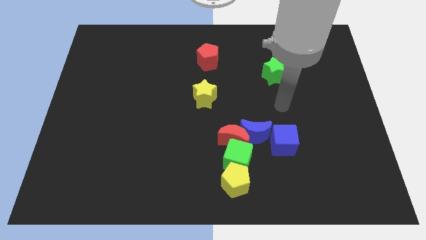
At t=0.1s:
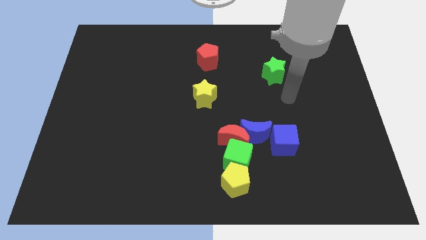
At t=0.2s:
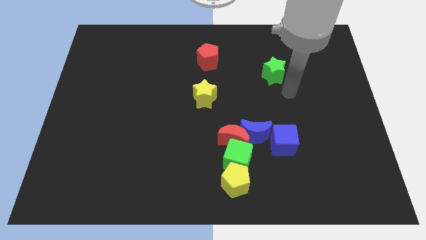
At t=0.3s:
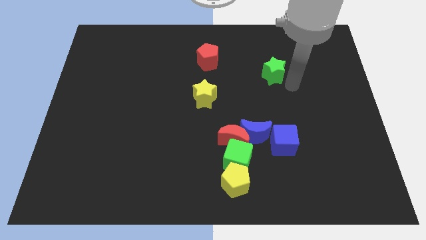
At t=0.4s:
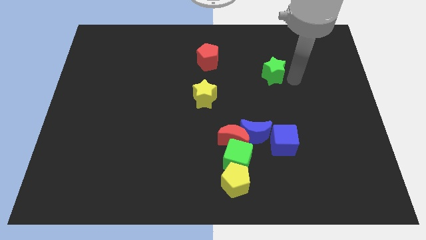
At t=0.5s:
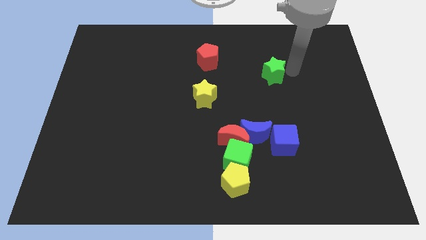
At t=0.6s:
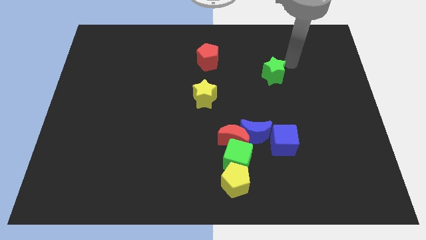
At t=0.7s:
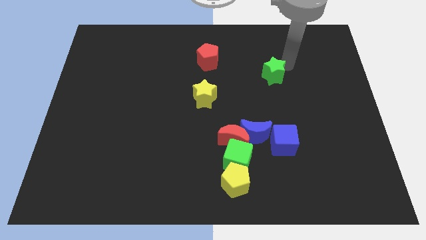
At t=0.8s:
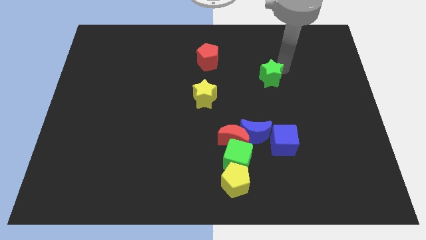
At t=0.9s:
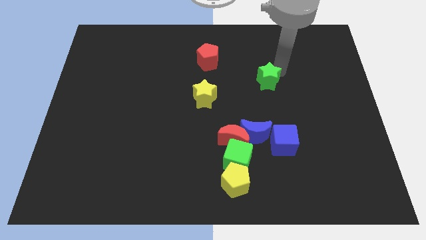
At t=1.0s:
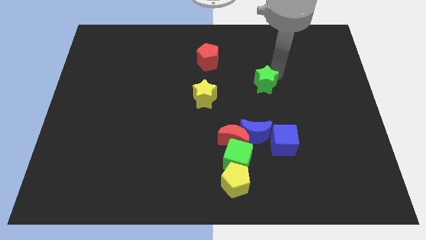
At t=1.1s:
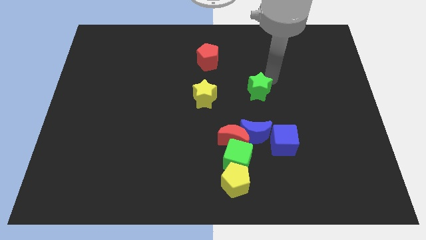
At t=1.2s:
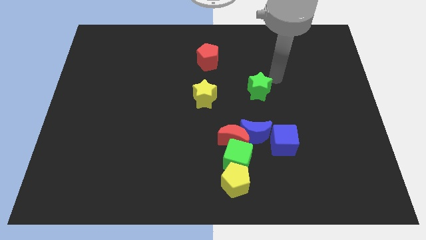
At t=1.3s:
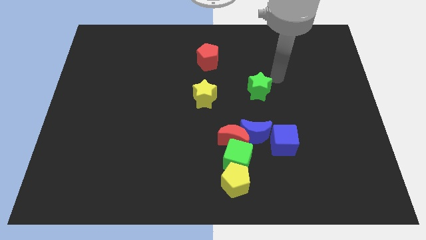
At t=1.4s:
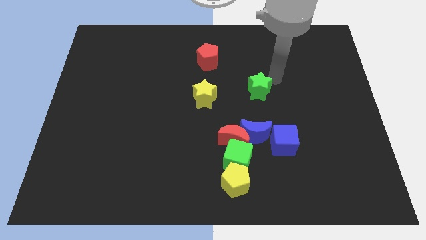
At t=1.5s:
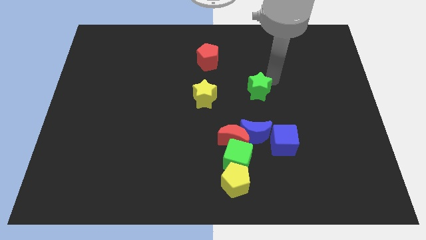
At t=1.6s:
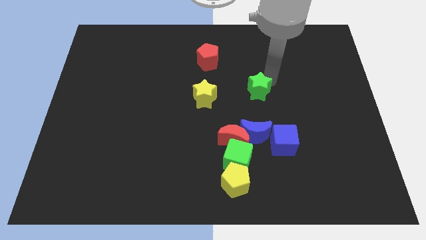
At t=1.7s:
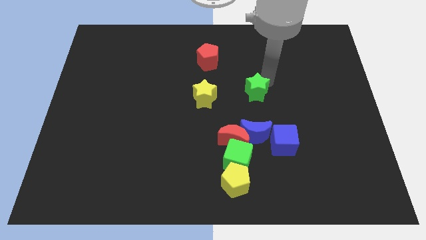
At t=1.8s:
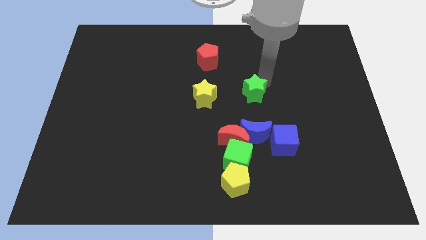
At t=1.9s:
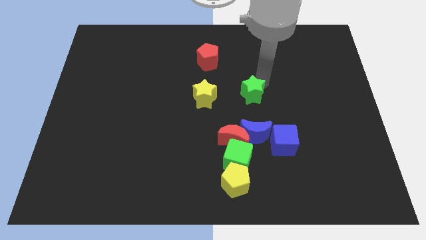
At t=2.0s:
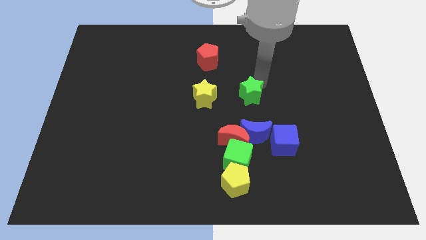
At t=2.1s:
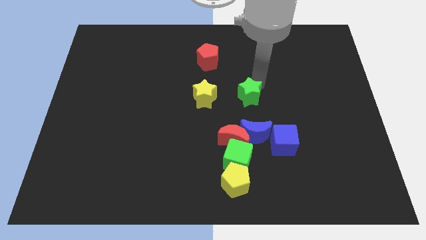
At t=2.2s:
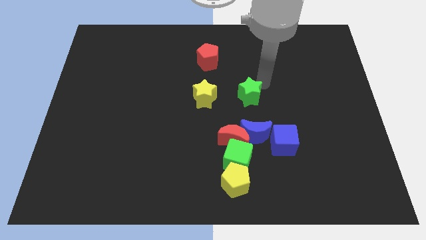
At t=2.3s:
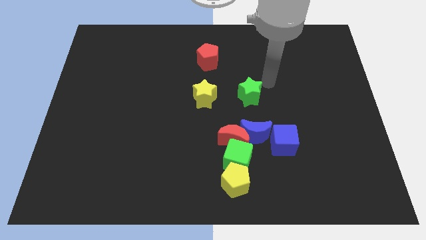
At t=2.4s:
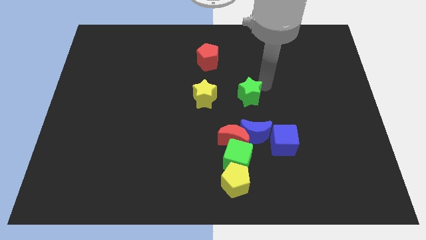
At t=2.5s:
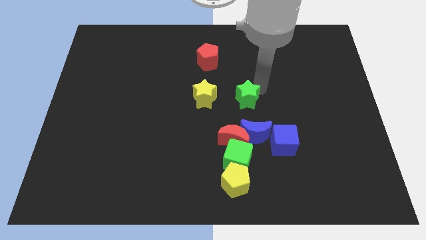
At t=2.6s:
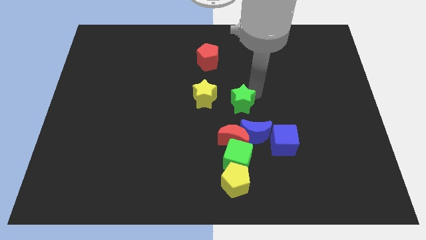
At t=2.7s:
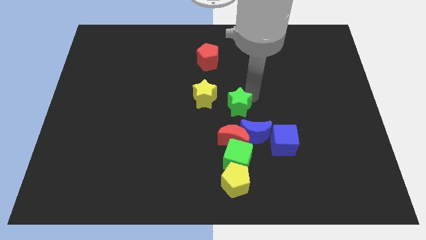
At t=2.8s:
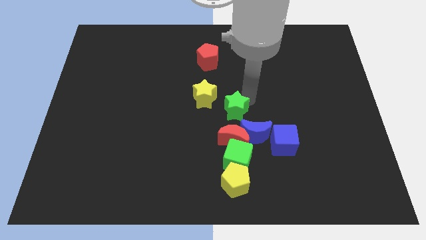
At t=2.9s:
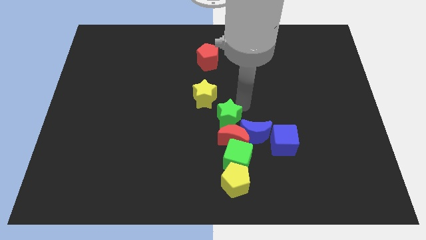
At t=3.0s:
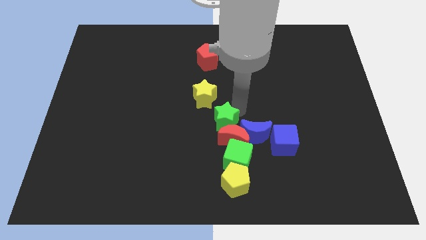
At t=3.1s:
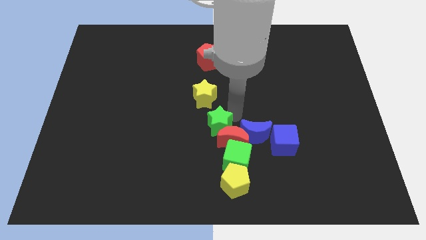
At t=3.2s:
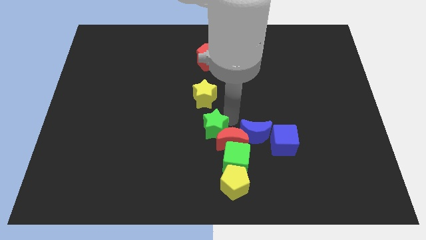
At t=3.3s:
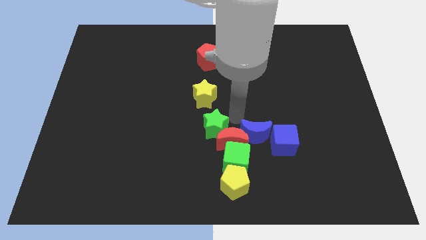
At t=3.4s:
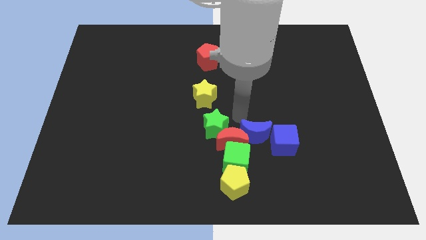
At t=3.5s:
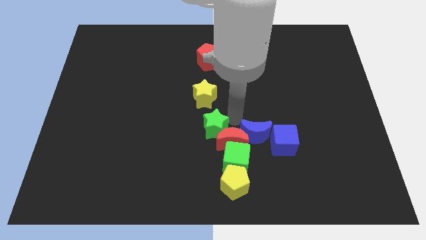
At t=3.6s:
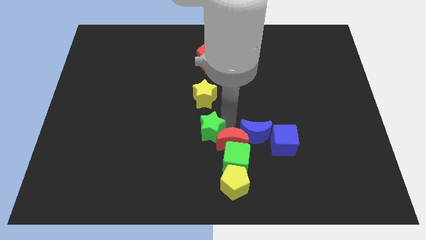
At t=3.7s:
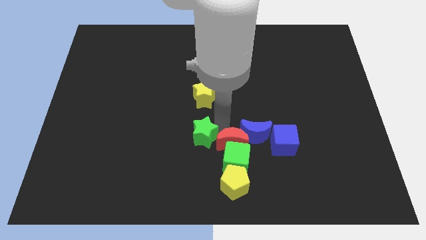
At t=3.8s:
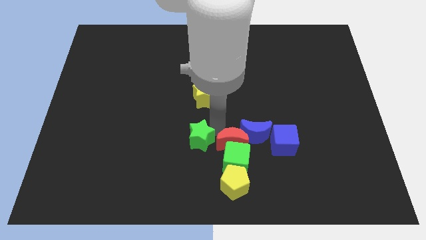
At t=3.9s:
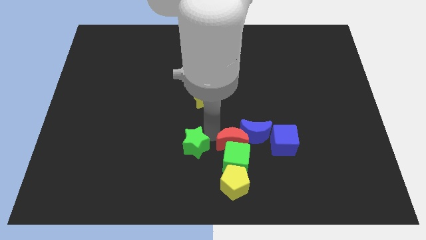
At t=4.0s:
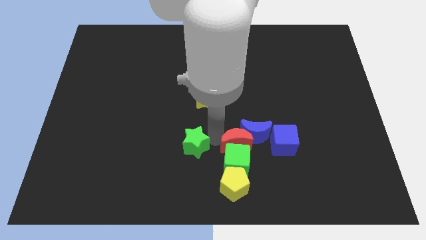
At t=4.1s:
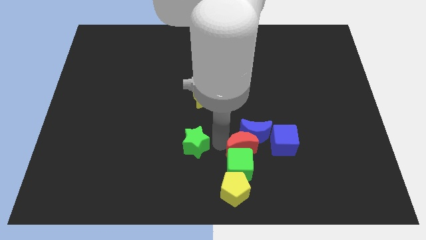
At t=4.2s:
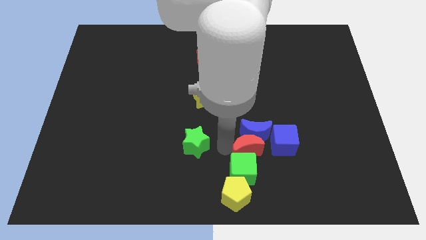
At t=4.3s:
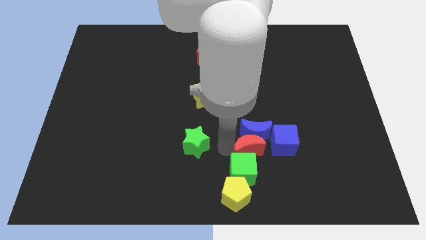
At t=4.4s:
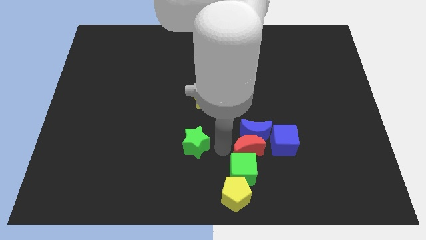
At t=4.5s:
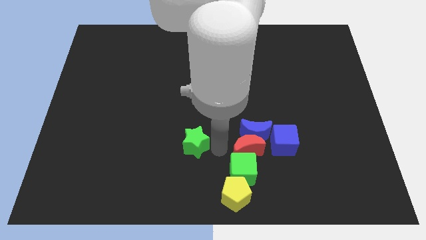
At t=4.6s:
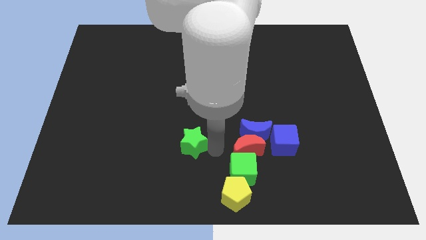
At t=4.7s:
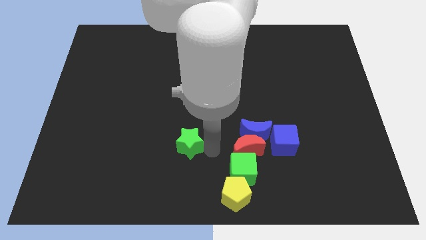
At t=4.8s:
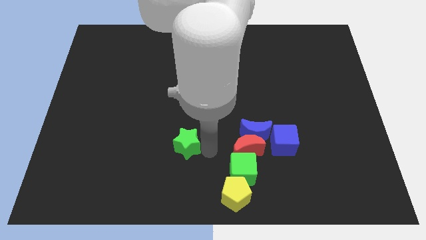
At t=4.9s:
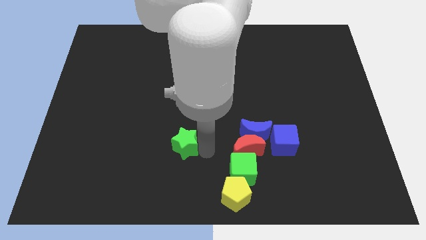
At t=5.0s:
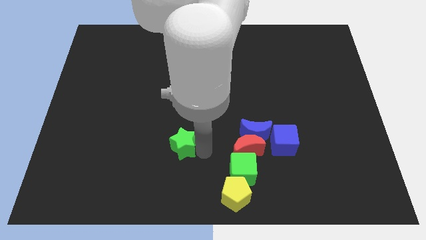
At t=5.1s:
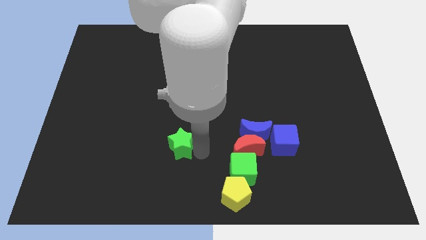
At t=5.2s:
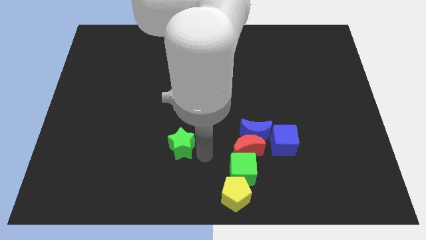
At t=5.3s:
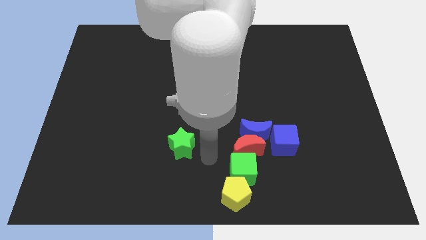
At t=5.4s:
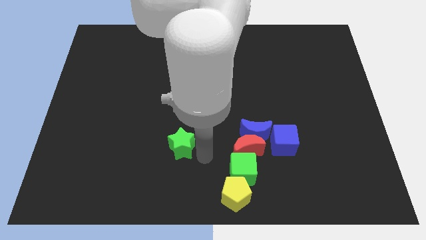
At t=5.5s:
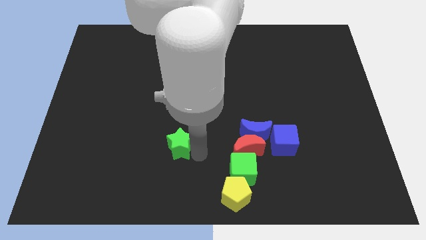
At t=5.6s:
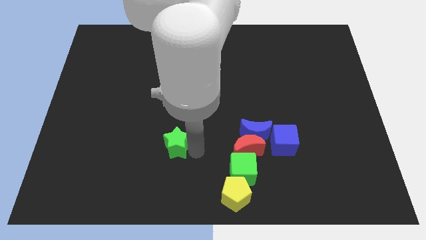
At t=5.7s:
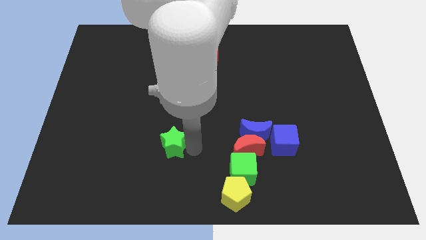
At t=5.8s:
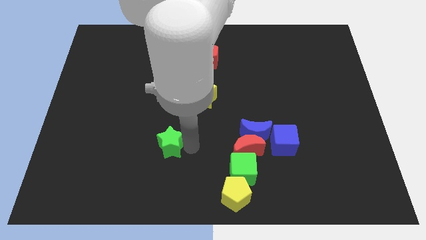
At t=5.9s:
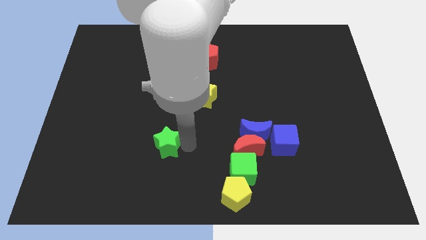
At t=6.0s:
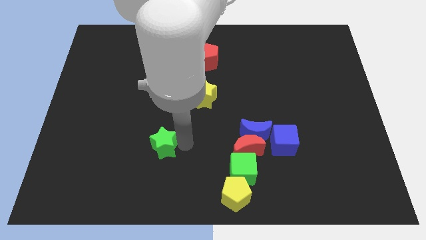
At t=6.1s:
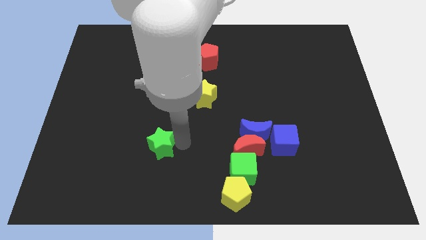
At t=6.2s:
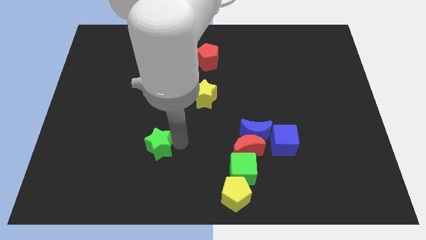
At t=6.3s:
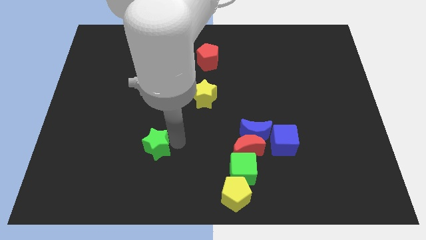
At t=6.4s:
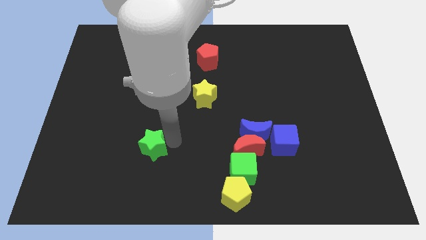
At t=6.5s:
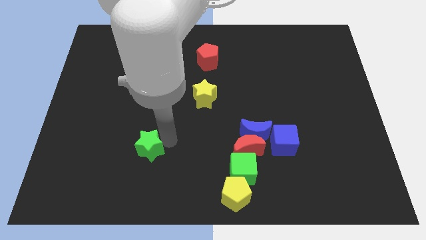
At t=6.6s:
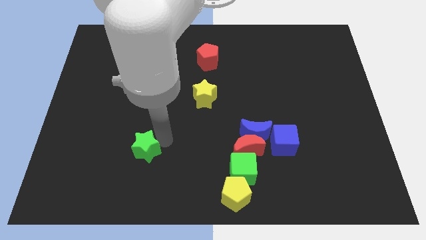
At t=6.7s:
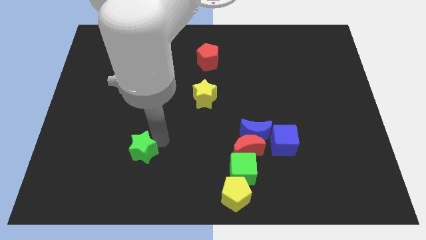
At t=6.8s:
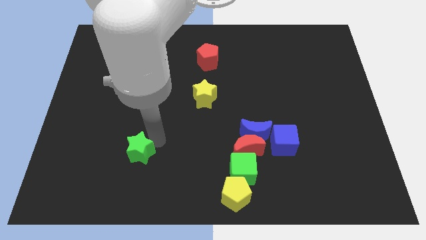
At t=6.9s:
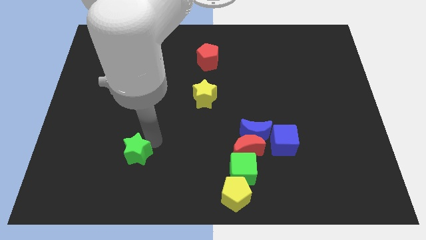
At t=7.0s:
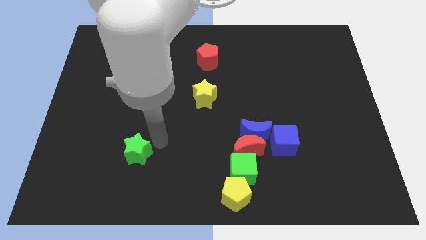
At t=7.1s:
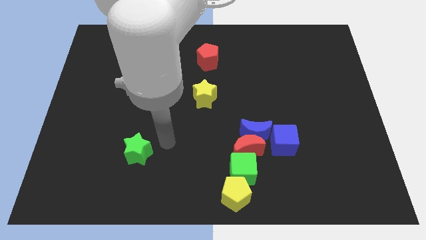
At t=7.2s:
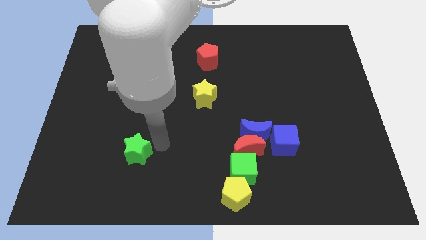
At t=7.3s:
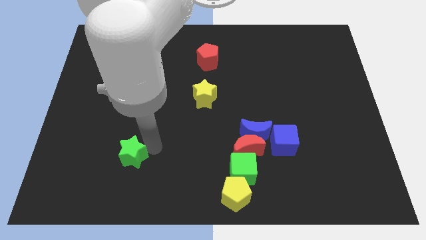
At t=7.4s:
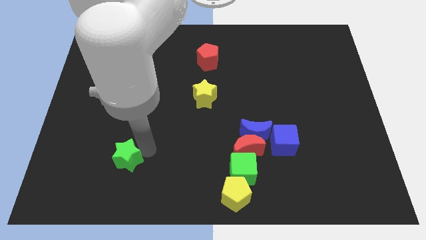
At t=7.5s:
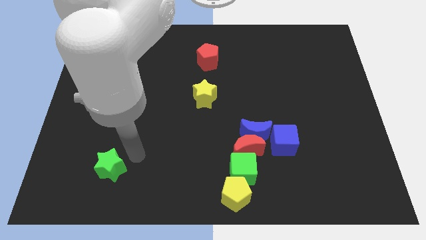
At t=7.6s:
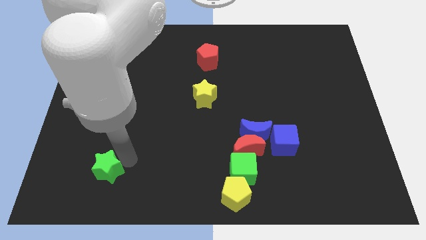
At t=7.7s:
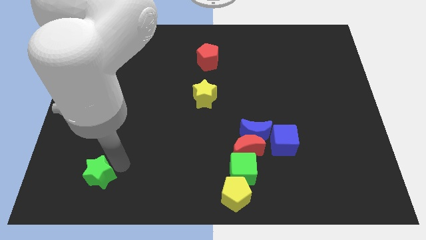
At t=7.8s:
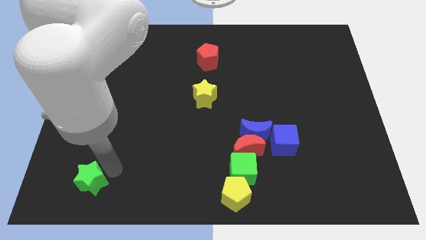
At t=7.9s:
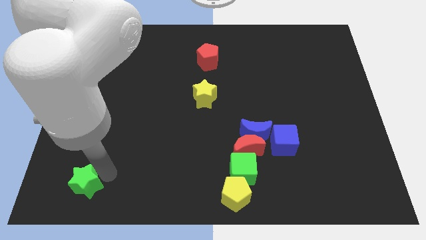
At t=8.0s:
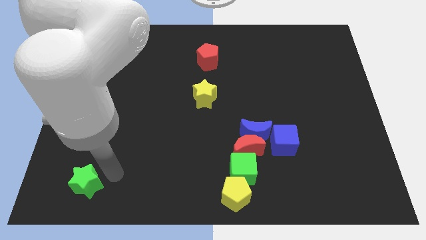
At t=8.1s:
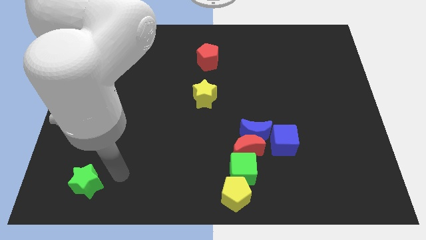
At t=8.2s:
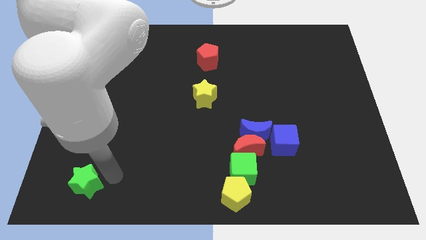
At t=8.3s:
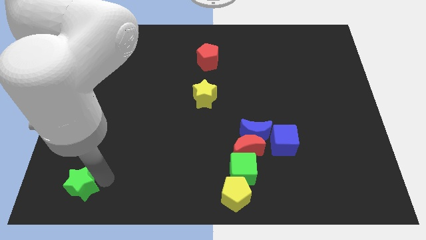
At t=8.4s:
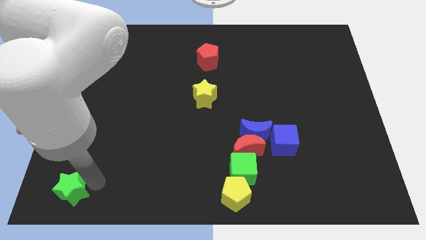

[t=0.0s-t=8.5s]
move the green star to the lower left corner
